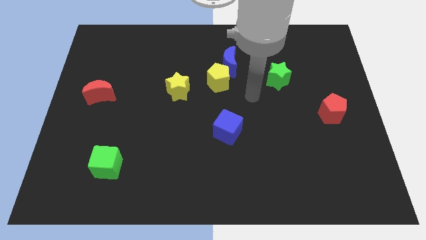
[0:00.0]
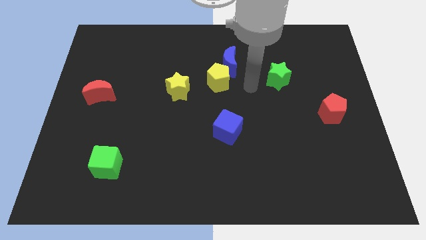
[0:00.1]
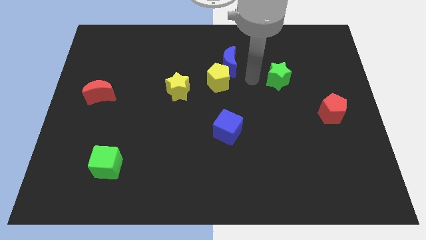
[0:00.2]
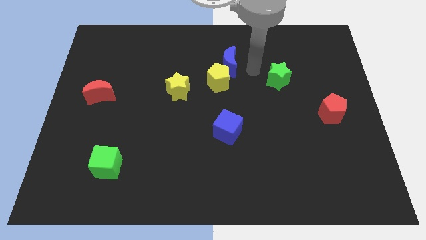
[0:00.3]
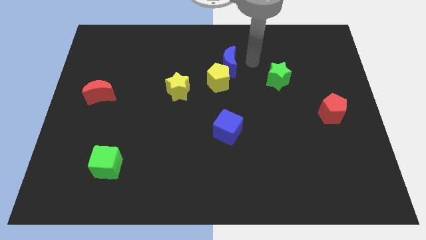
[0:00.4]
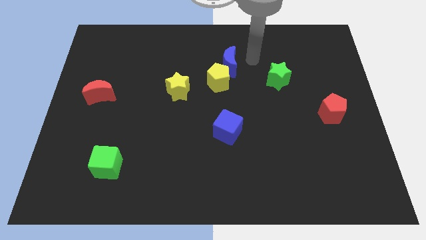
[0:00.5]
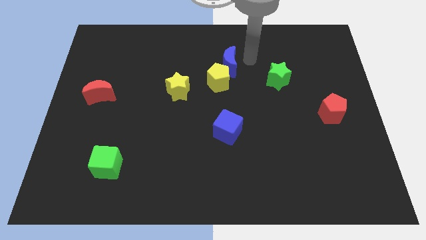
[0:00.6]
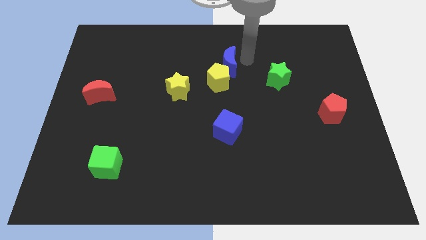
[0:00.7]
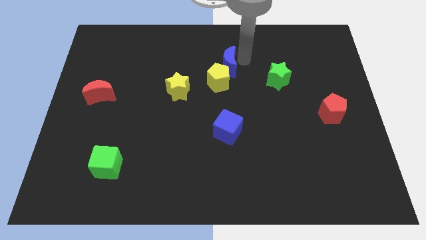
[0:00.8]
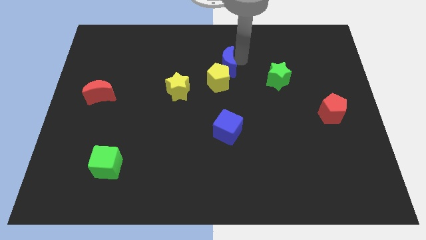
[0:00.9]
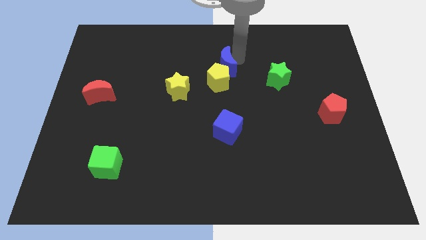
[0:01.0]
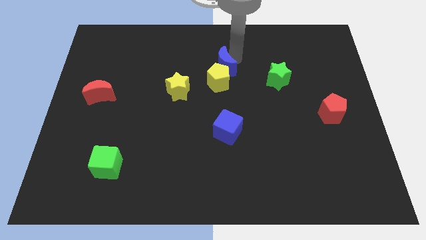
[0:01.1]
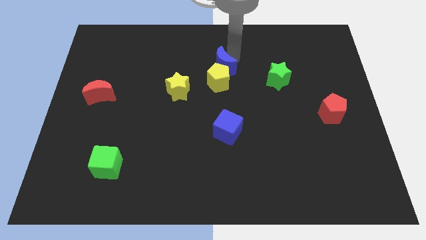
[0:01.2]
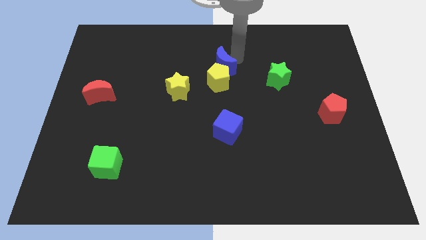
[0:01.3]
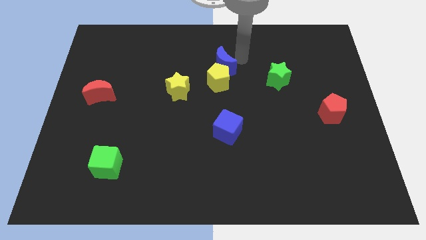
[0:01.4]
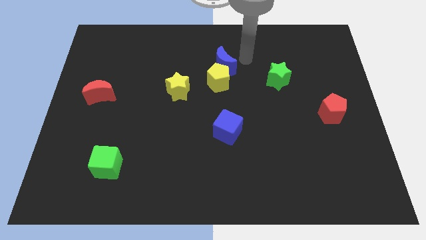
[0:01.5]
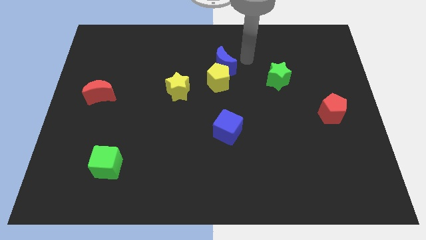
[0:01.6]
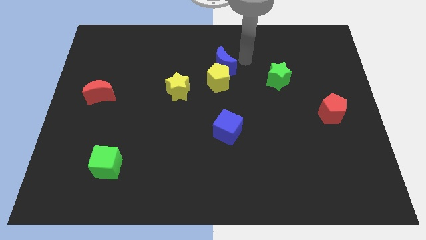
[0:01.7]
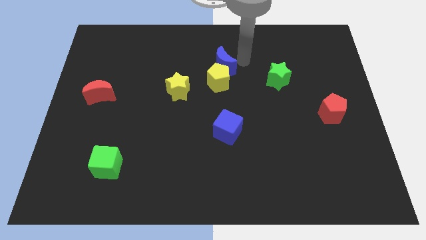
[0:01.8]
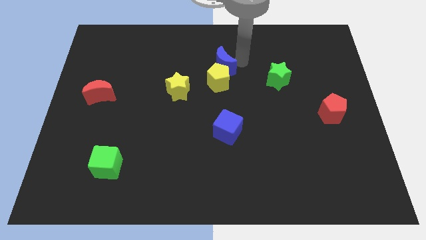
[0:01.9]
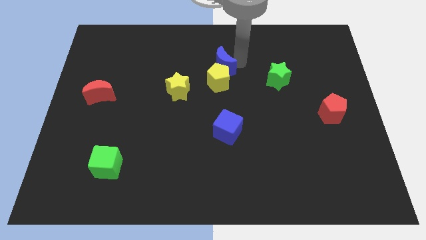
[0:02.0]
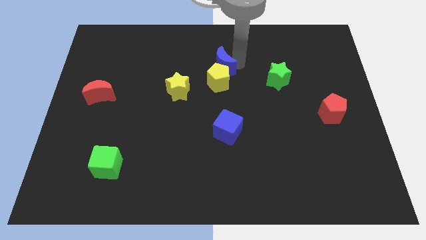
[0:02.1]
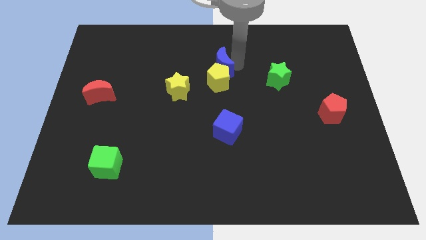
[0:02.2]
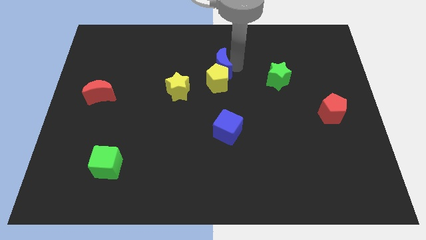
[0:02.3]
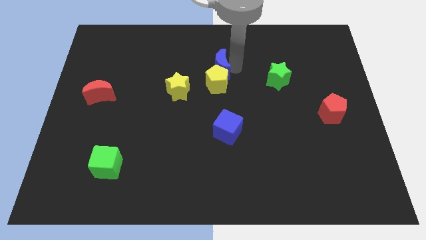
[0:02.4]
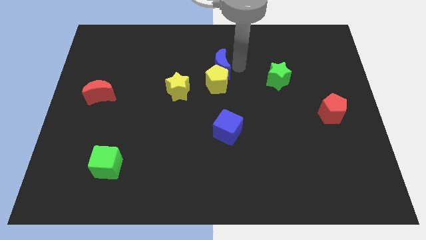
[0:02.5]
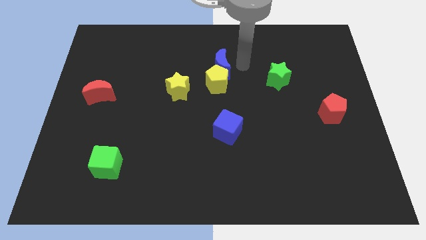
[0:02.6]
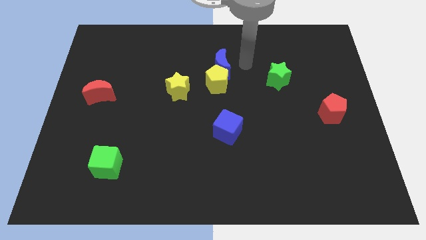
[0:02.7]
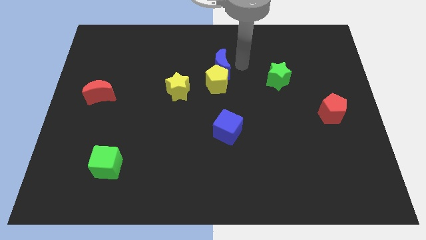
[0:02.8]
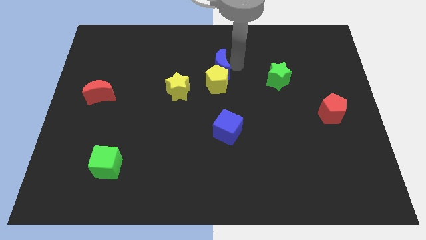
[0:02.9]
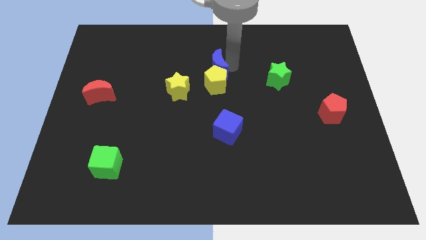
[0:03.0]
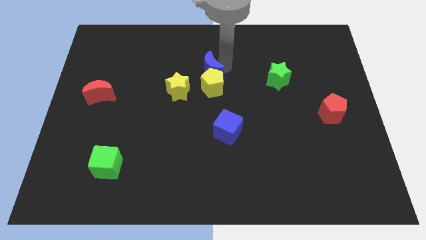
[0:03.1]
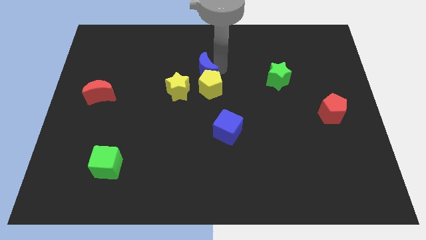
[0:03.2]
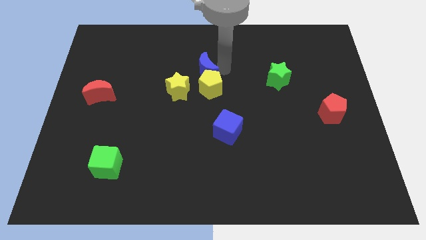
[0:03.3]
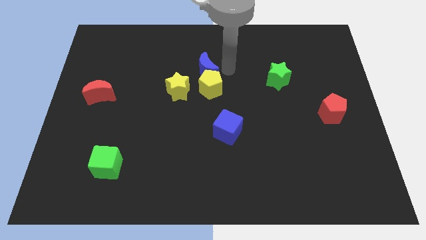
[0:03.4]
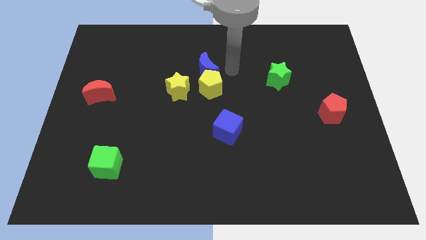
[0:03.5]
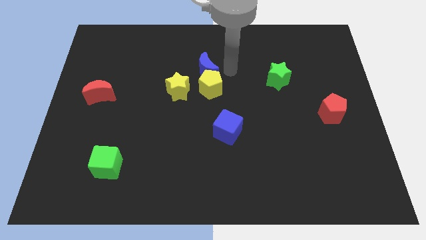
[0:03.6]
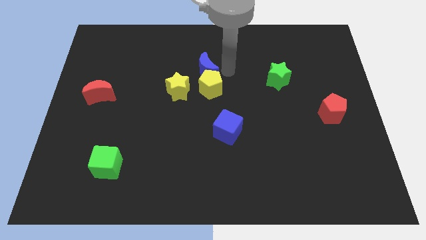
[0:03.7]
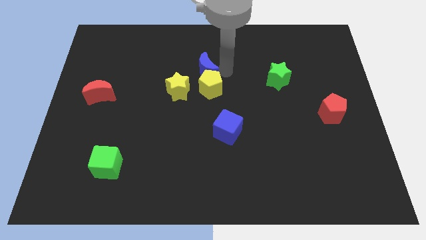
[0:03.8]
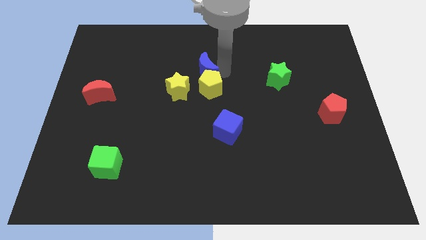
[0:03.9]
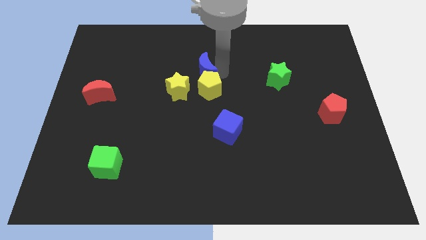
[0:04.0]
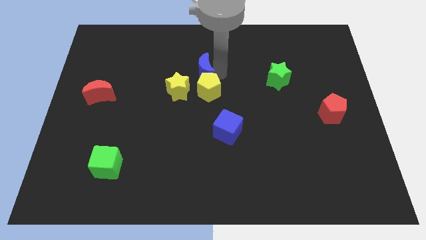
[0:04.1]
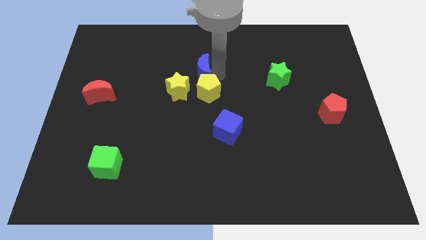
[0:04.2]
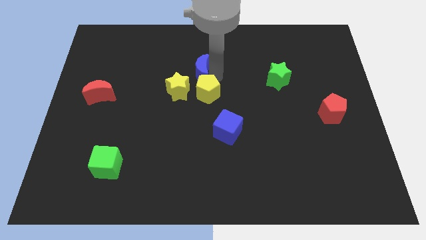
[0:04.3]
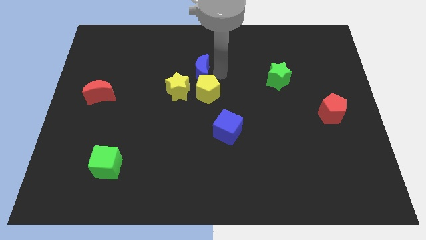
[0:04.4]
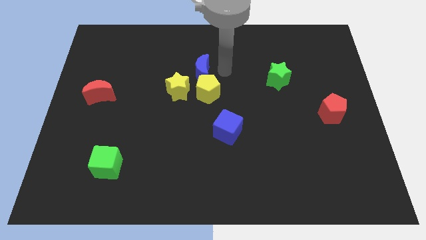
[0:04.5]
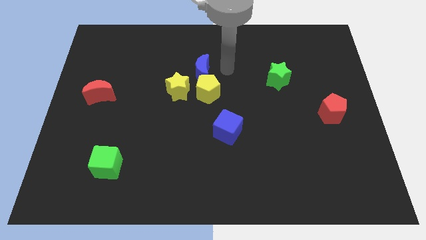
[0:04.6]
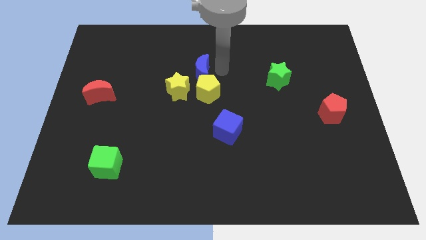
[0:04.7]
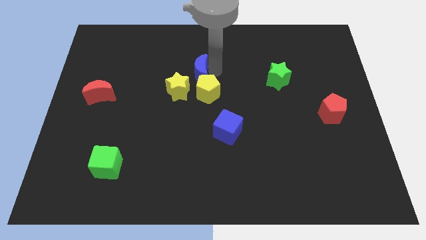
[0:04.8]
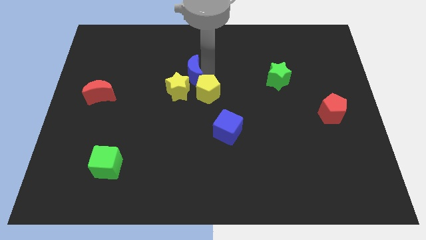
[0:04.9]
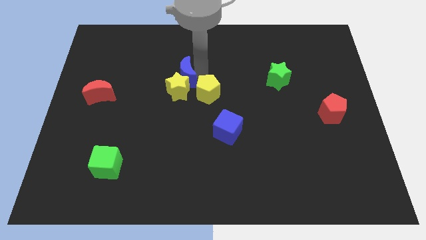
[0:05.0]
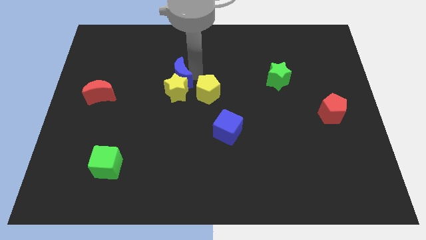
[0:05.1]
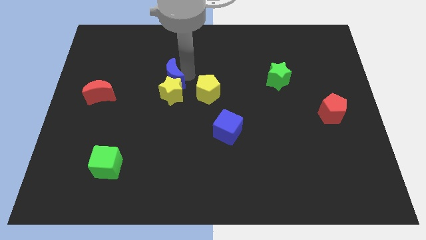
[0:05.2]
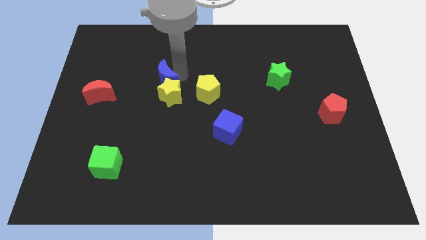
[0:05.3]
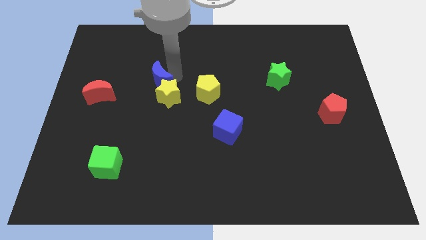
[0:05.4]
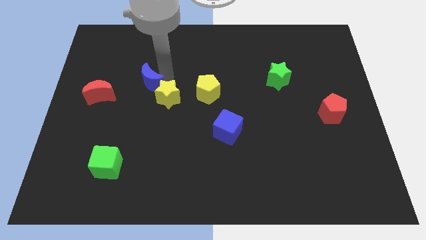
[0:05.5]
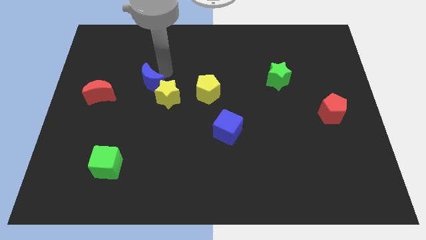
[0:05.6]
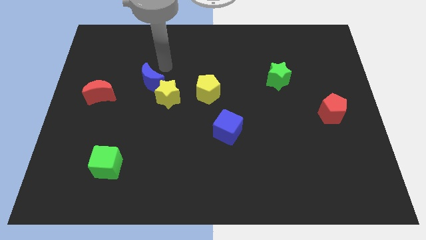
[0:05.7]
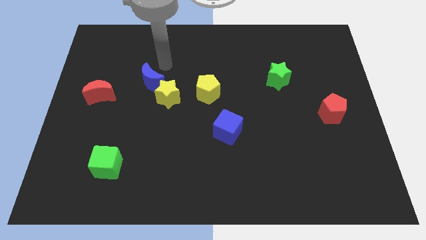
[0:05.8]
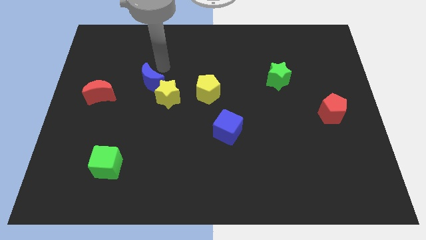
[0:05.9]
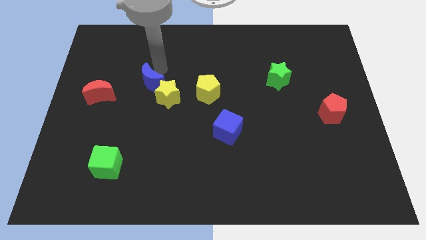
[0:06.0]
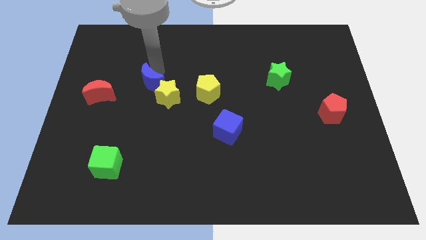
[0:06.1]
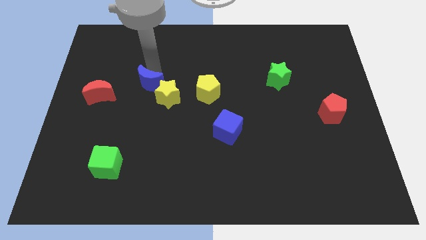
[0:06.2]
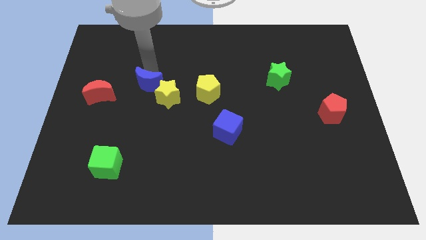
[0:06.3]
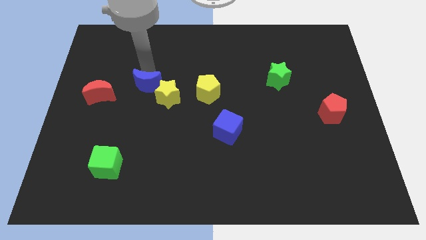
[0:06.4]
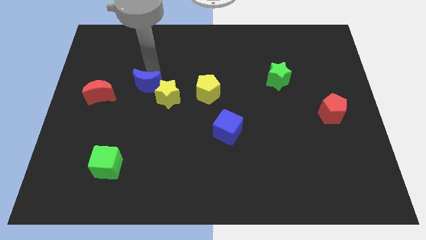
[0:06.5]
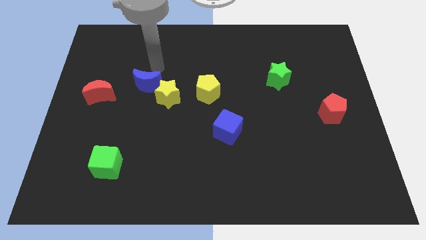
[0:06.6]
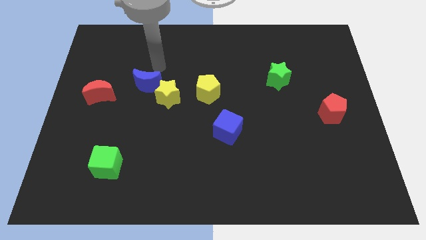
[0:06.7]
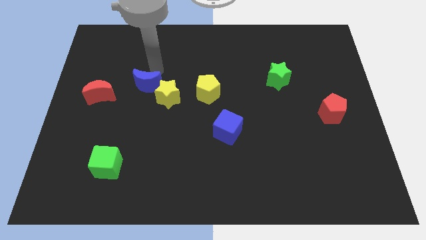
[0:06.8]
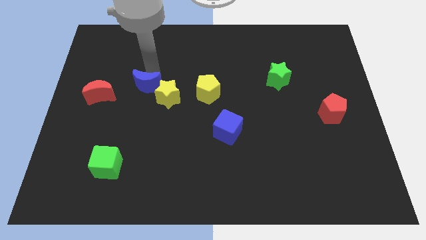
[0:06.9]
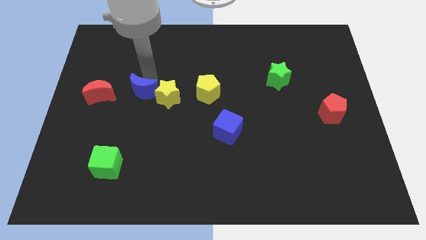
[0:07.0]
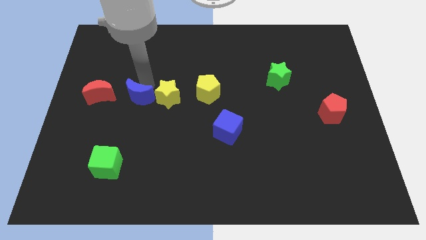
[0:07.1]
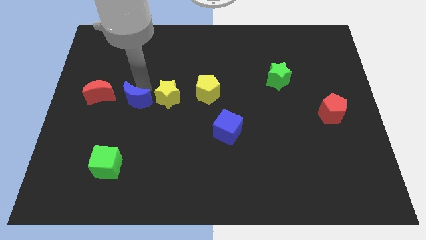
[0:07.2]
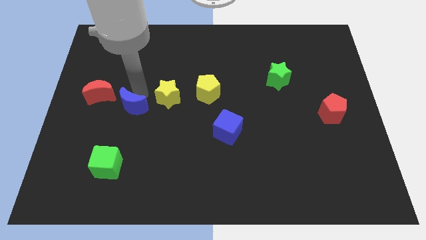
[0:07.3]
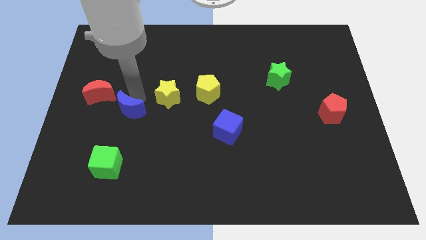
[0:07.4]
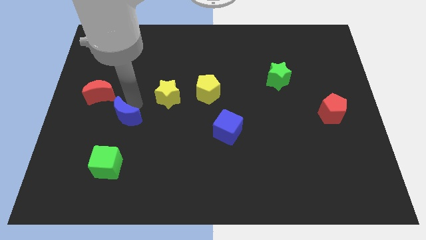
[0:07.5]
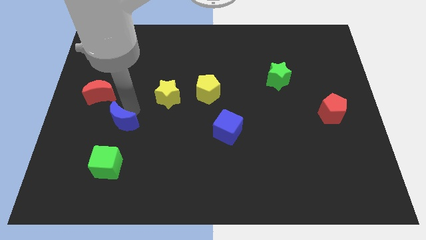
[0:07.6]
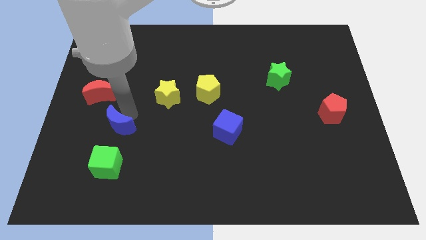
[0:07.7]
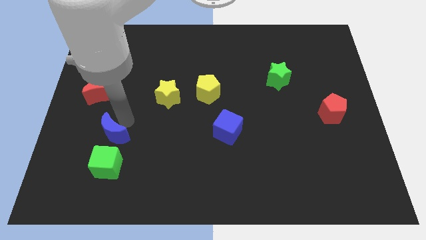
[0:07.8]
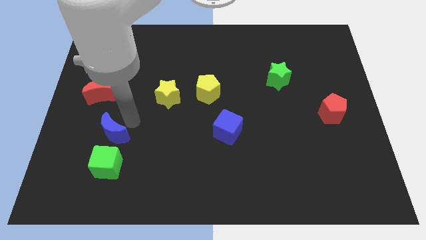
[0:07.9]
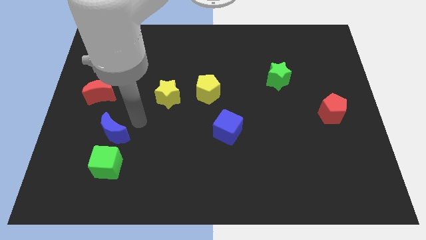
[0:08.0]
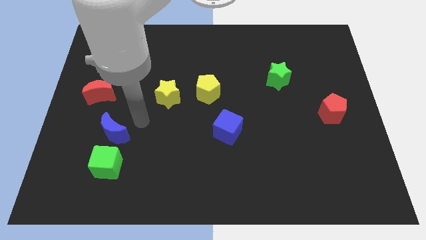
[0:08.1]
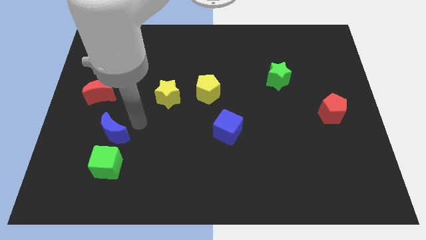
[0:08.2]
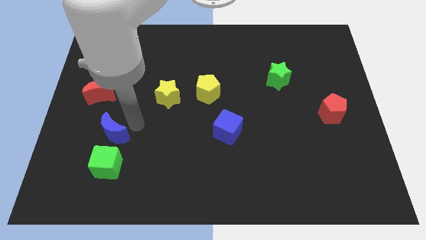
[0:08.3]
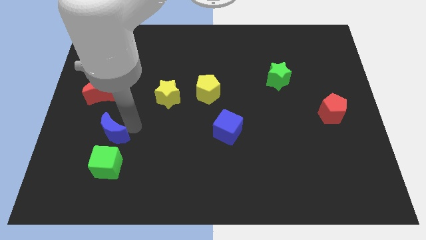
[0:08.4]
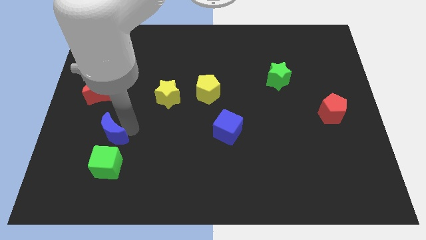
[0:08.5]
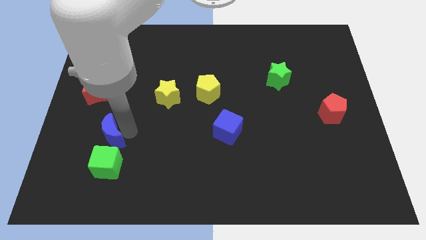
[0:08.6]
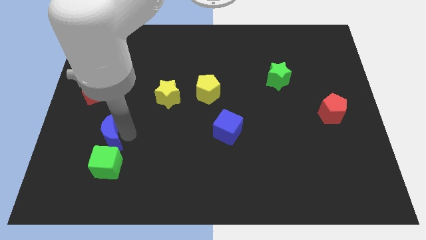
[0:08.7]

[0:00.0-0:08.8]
put the blue moon to the top left side of the green cube
